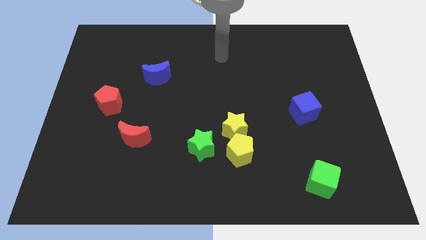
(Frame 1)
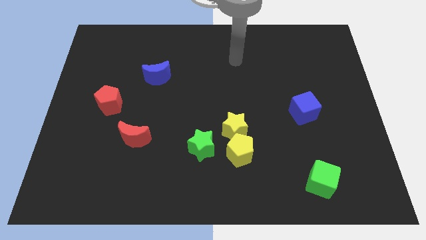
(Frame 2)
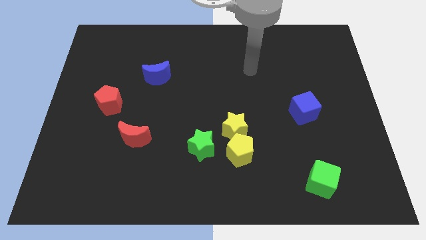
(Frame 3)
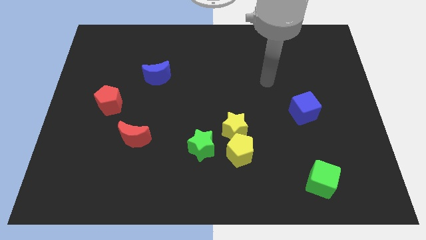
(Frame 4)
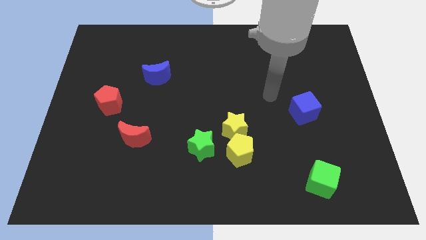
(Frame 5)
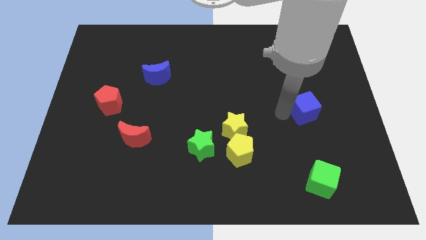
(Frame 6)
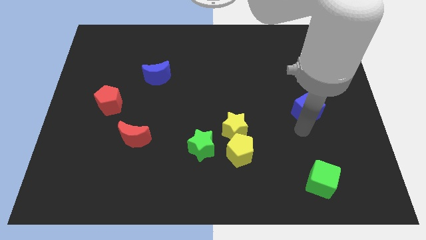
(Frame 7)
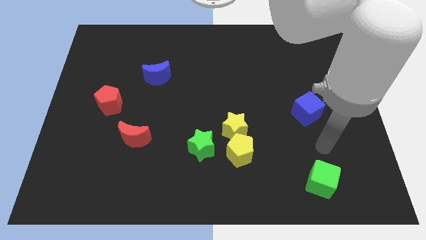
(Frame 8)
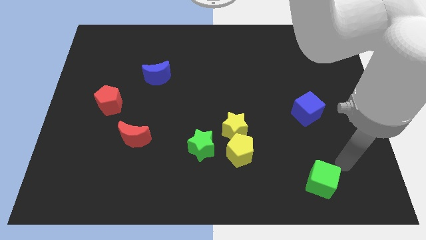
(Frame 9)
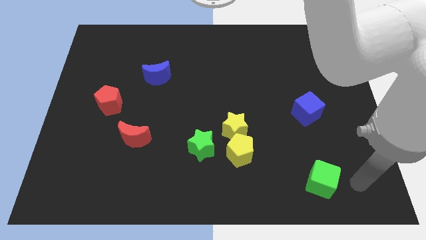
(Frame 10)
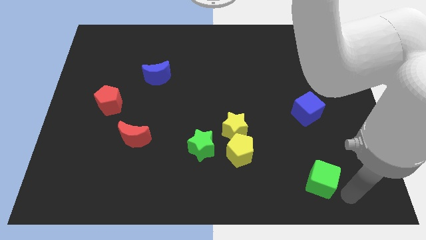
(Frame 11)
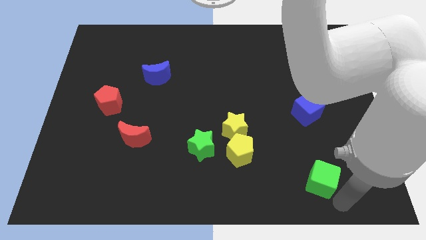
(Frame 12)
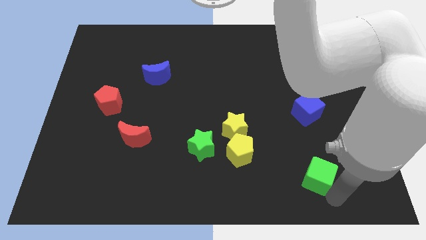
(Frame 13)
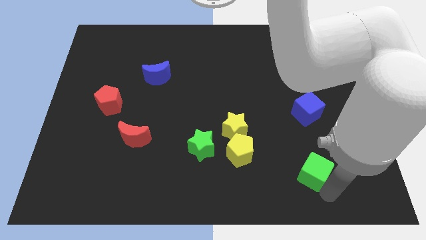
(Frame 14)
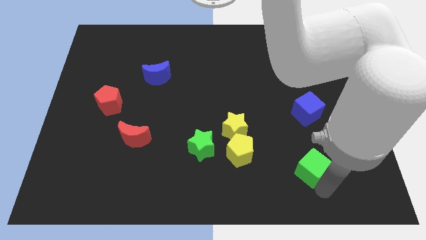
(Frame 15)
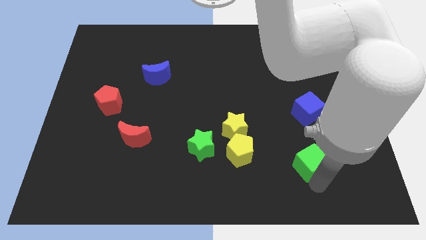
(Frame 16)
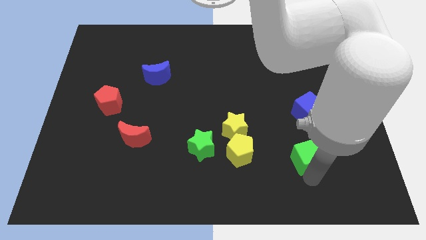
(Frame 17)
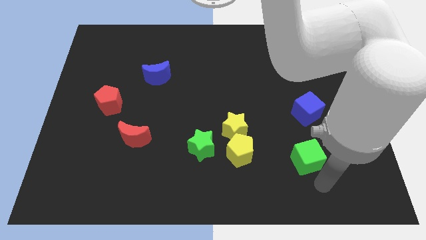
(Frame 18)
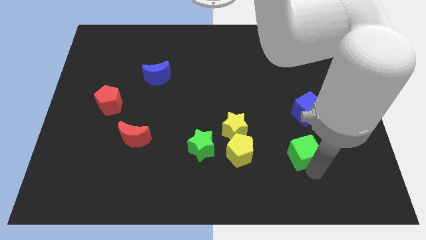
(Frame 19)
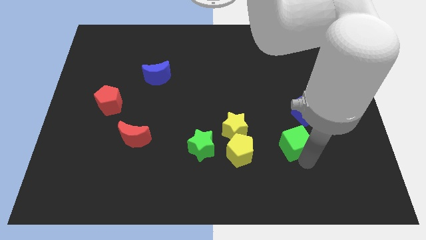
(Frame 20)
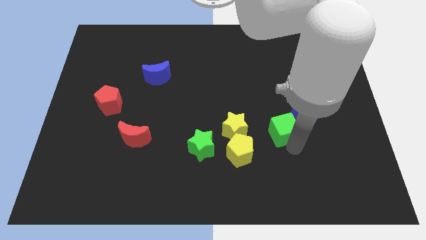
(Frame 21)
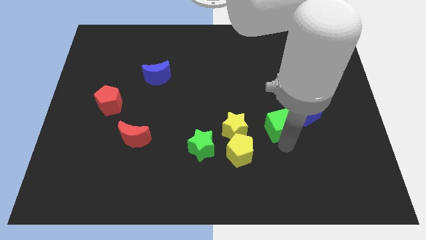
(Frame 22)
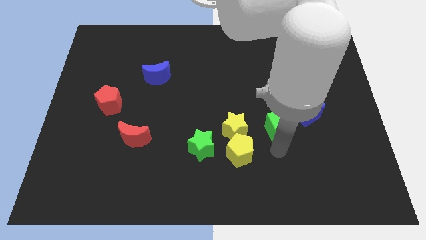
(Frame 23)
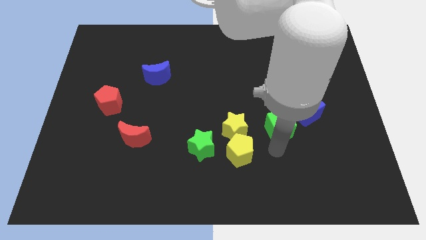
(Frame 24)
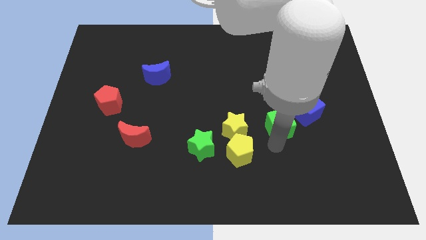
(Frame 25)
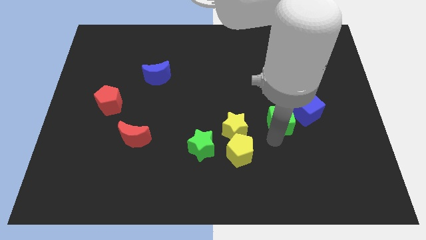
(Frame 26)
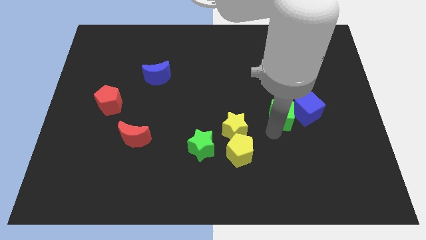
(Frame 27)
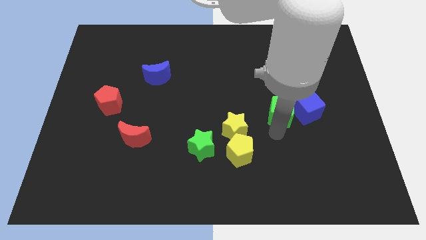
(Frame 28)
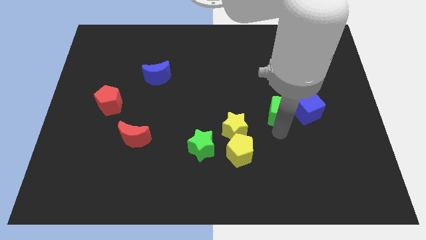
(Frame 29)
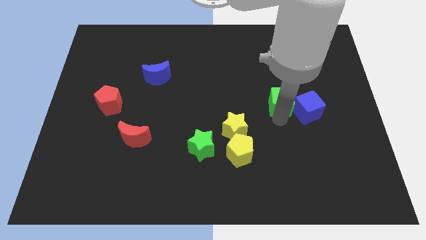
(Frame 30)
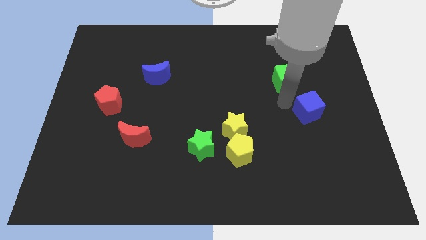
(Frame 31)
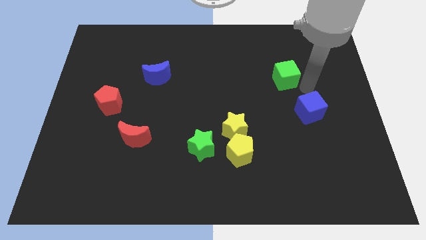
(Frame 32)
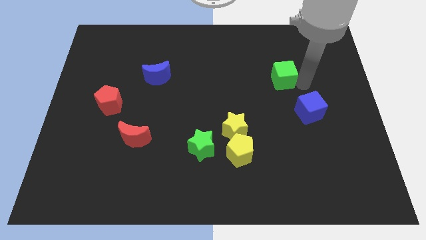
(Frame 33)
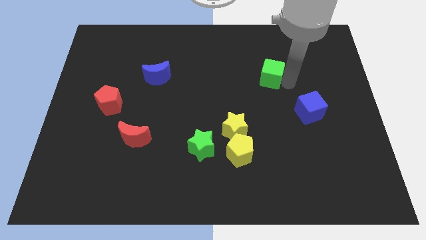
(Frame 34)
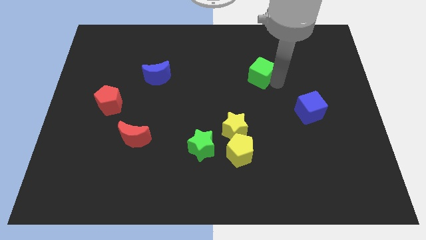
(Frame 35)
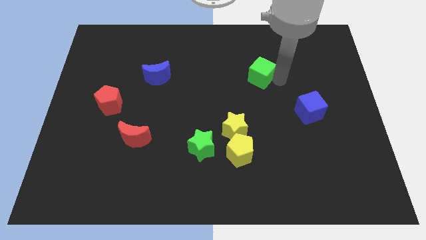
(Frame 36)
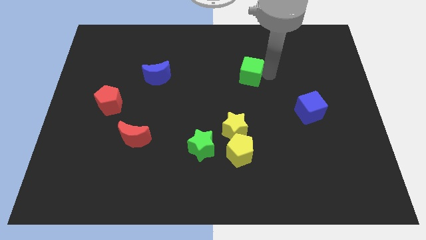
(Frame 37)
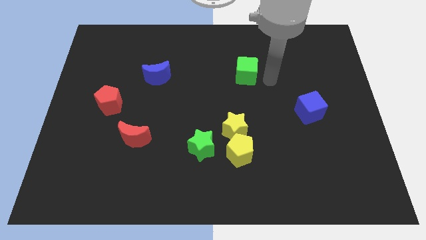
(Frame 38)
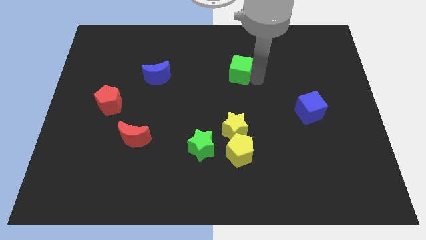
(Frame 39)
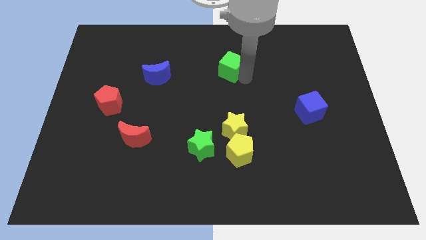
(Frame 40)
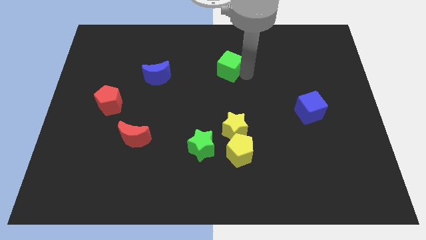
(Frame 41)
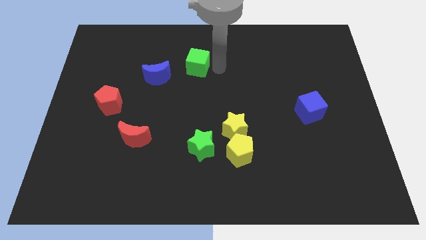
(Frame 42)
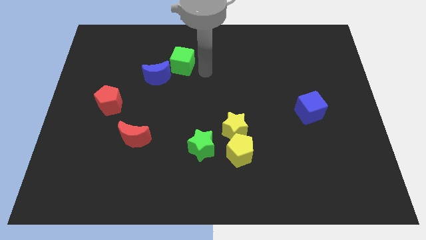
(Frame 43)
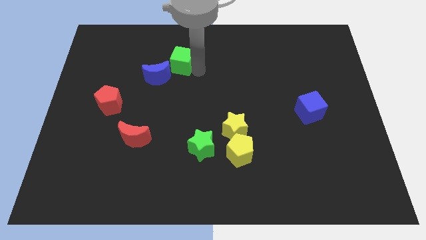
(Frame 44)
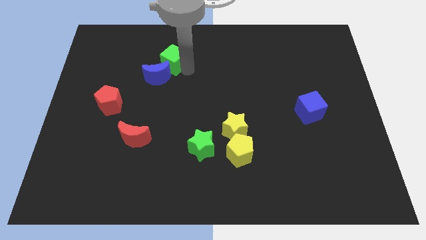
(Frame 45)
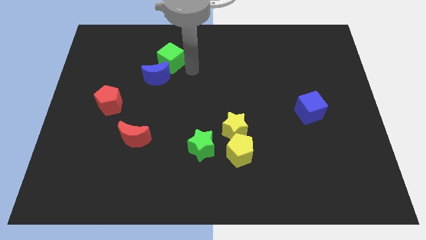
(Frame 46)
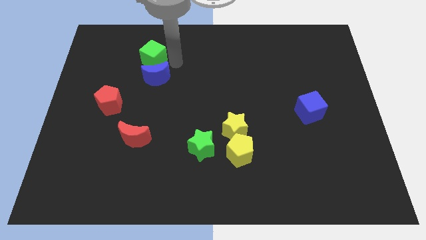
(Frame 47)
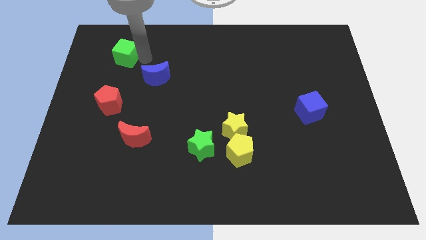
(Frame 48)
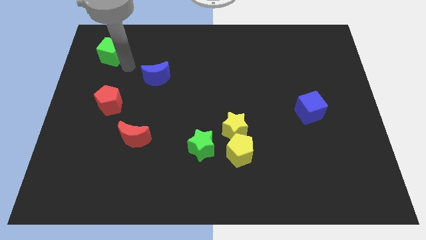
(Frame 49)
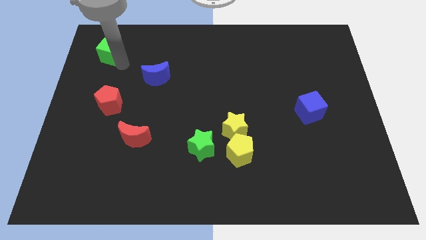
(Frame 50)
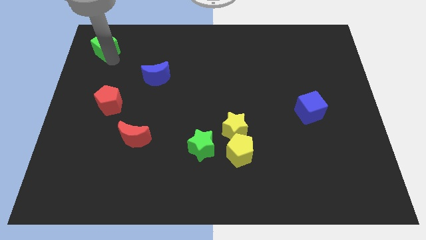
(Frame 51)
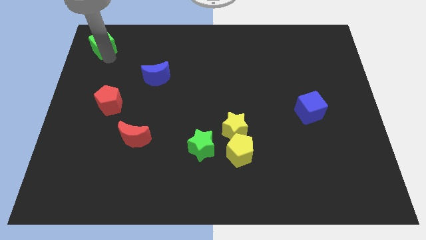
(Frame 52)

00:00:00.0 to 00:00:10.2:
slide the green cube to the top left corner

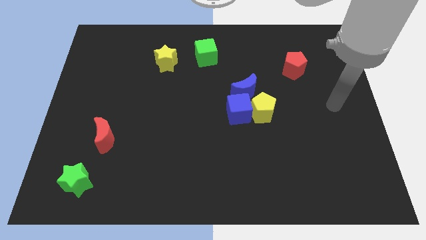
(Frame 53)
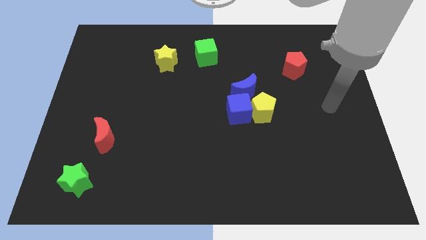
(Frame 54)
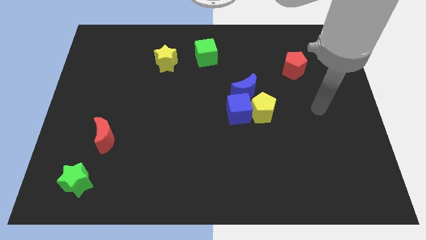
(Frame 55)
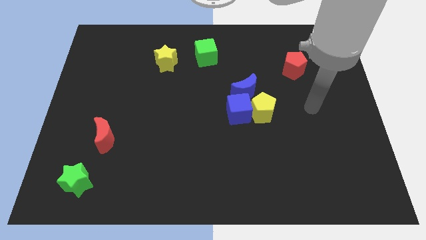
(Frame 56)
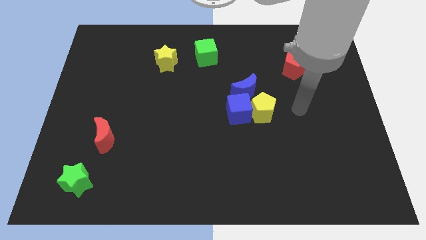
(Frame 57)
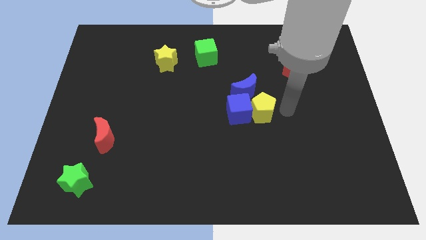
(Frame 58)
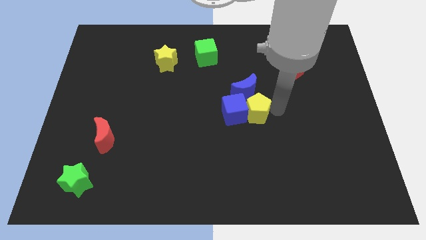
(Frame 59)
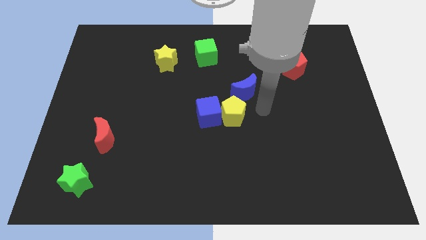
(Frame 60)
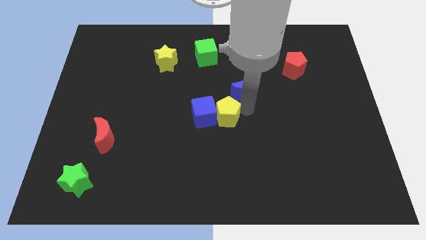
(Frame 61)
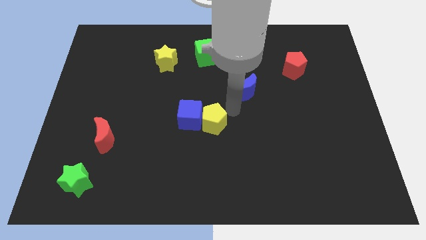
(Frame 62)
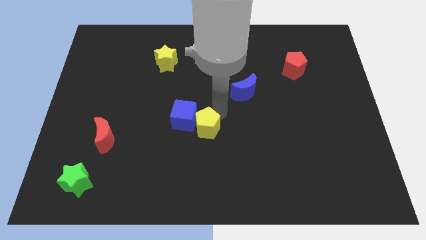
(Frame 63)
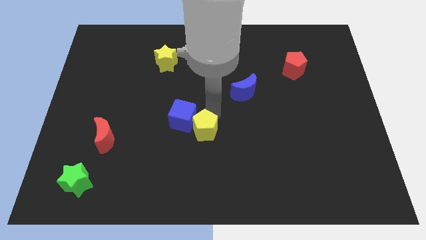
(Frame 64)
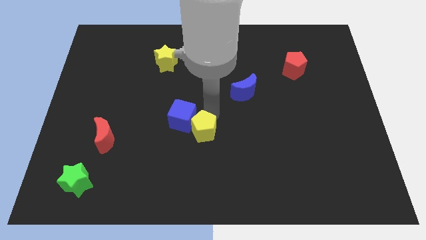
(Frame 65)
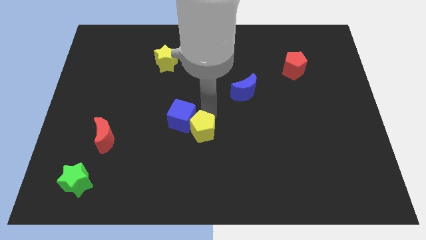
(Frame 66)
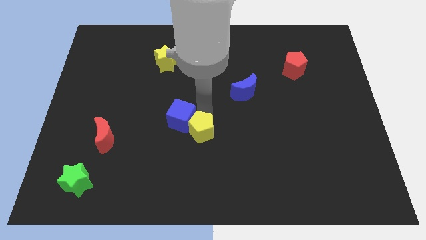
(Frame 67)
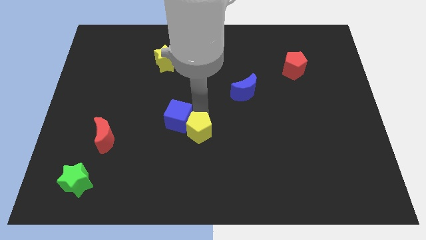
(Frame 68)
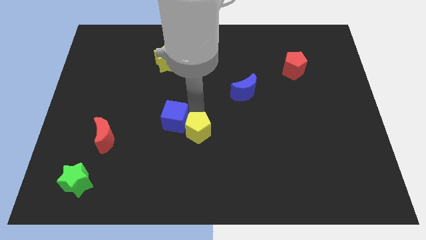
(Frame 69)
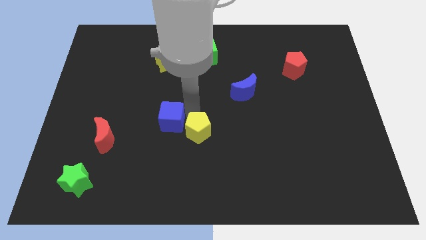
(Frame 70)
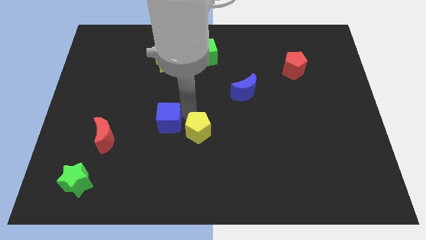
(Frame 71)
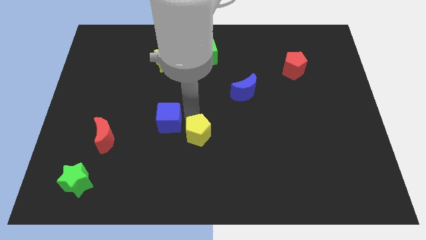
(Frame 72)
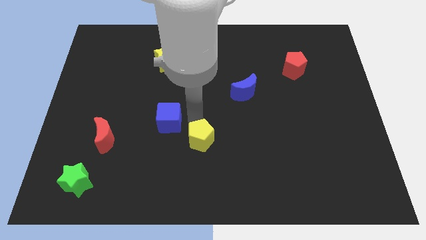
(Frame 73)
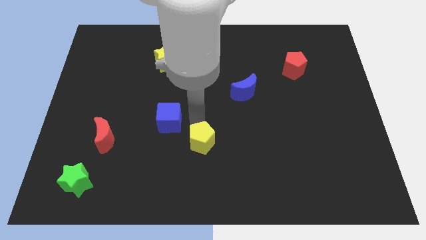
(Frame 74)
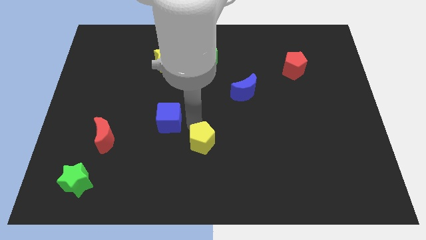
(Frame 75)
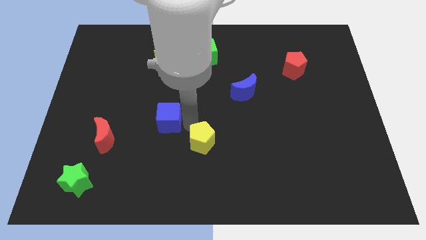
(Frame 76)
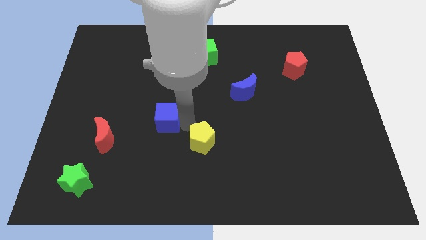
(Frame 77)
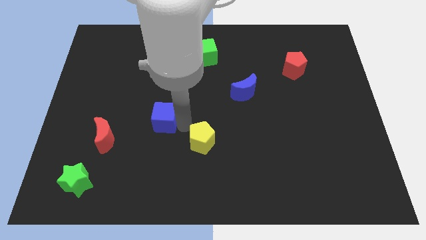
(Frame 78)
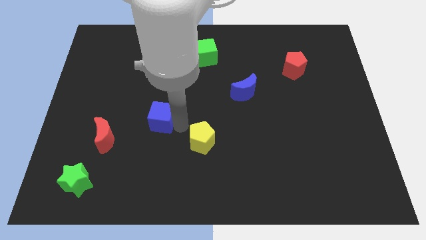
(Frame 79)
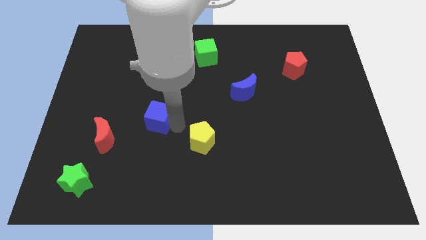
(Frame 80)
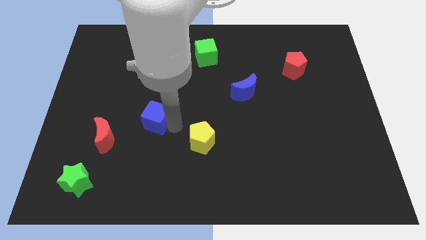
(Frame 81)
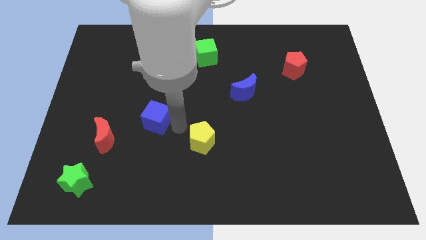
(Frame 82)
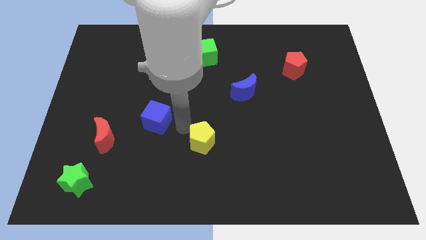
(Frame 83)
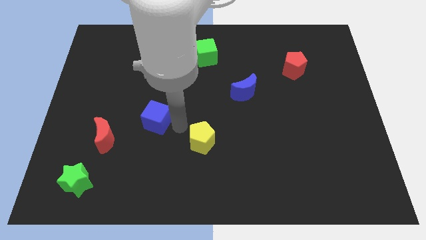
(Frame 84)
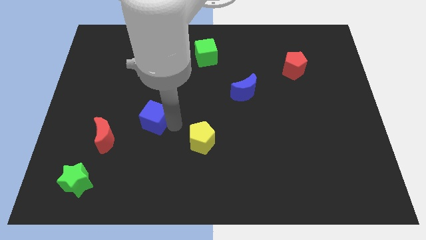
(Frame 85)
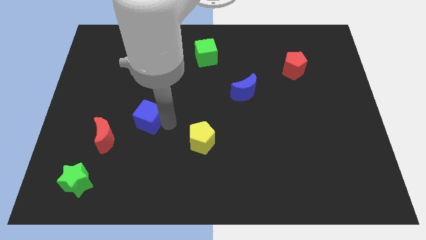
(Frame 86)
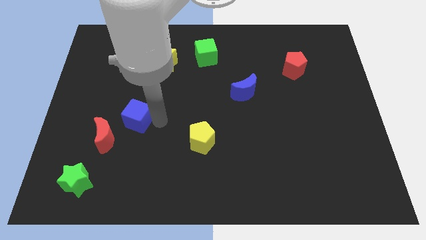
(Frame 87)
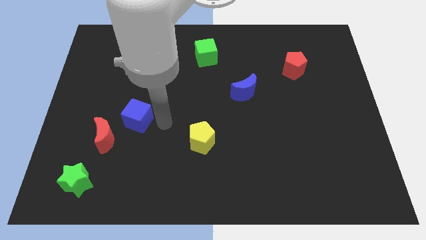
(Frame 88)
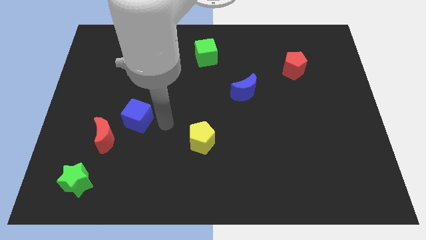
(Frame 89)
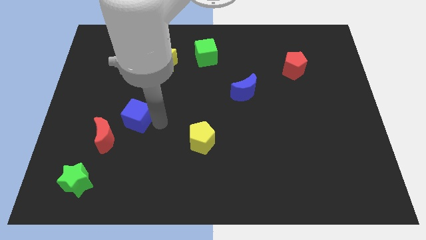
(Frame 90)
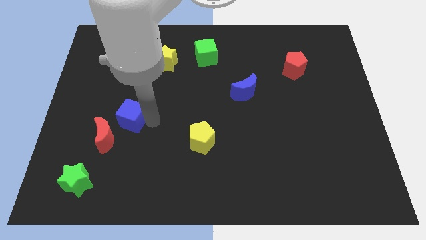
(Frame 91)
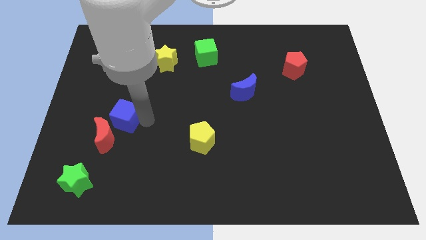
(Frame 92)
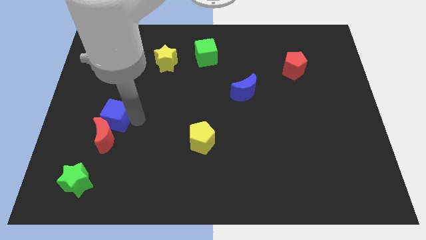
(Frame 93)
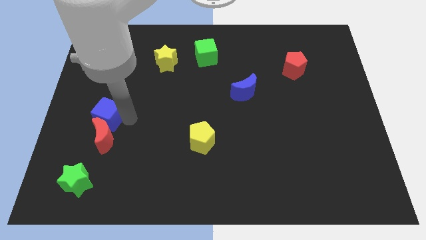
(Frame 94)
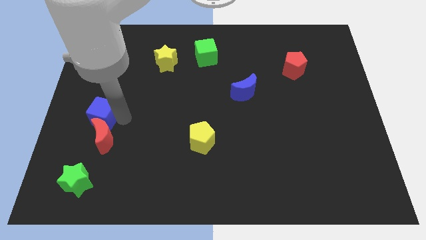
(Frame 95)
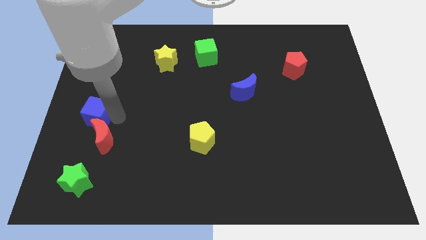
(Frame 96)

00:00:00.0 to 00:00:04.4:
move the blue cube to the center left
